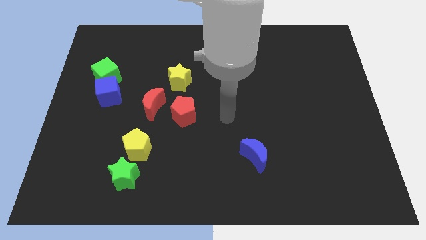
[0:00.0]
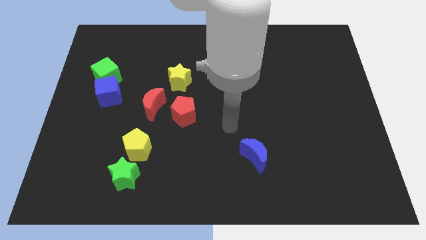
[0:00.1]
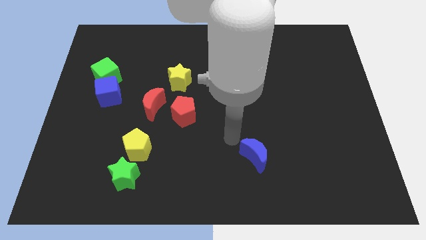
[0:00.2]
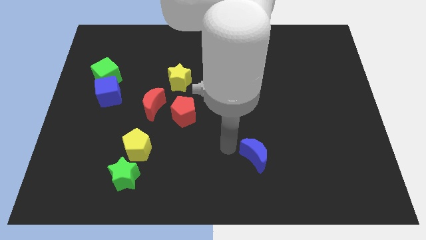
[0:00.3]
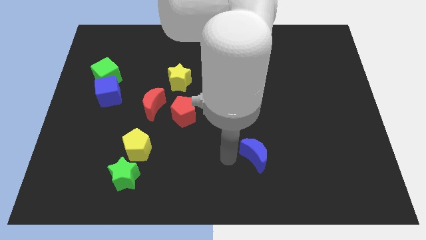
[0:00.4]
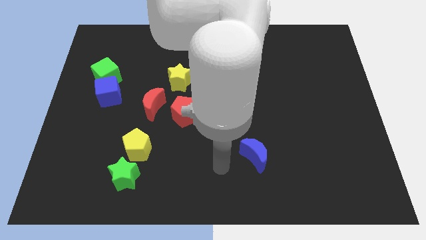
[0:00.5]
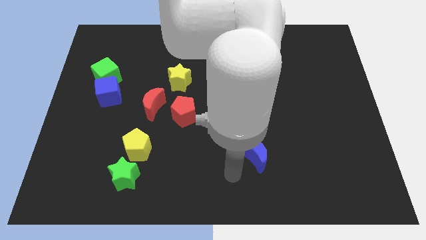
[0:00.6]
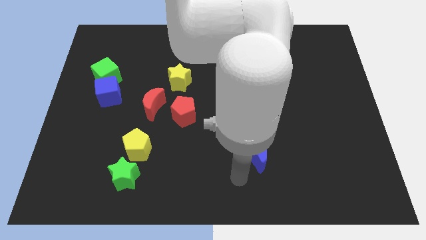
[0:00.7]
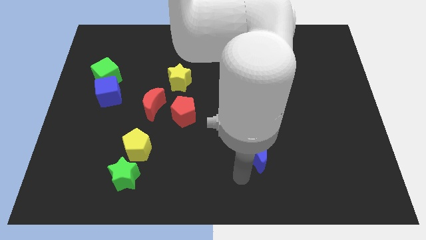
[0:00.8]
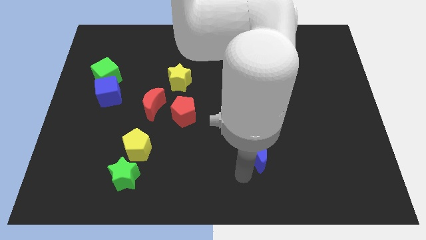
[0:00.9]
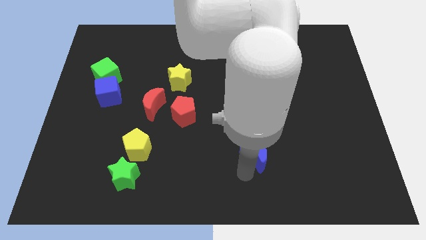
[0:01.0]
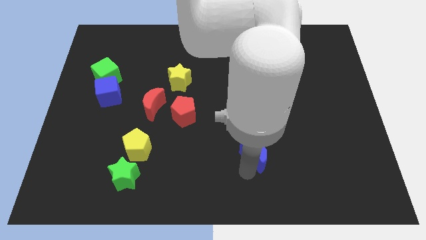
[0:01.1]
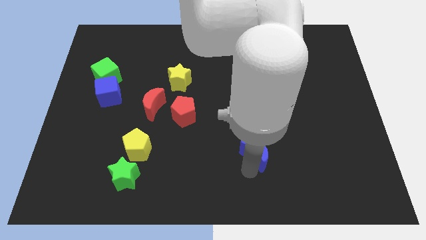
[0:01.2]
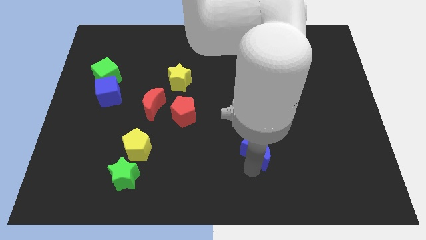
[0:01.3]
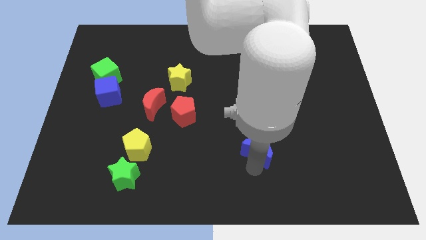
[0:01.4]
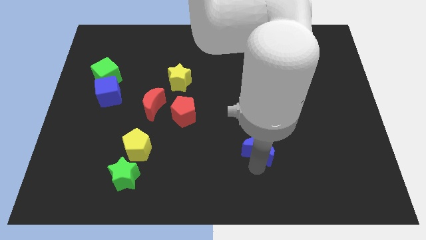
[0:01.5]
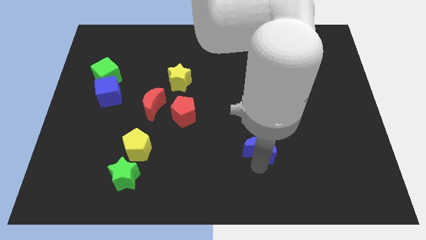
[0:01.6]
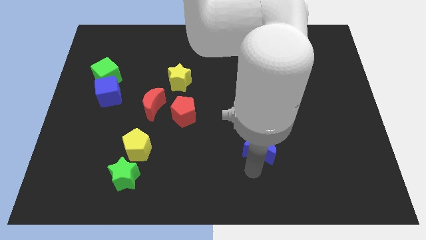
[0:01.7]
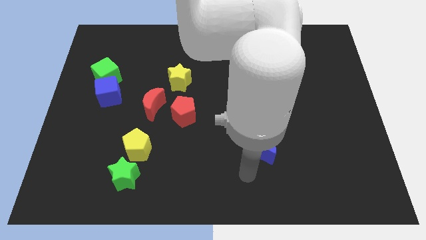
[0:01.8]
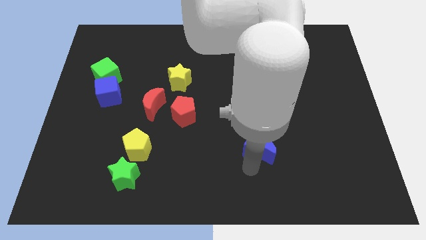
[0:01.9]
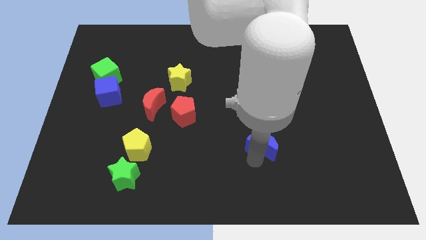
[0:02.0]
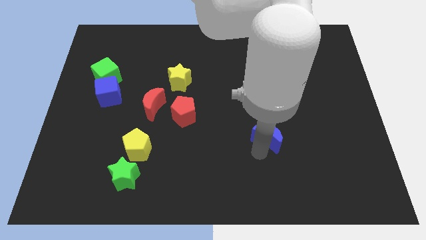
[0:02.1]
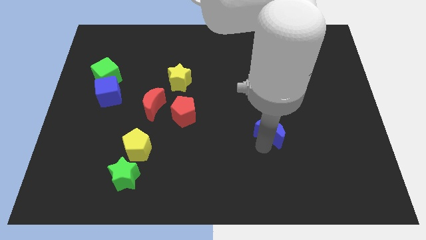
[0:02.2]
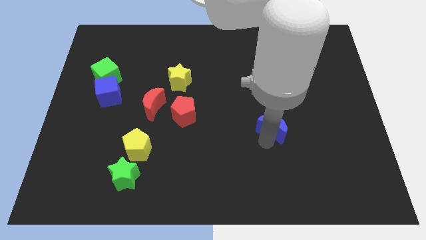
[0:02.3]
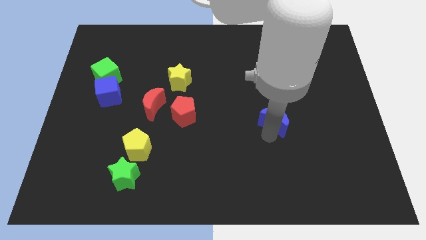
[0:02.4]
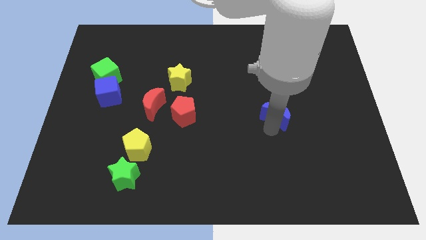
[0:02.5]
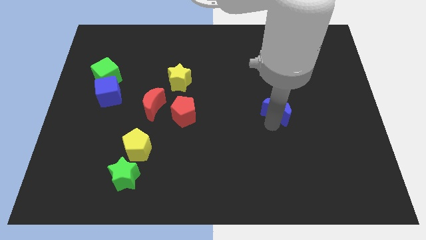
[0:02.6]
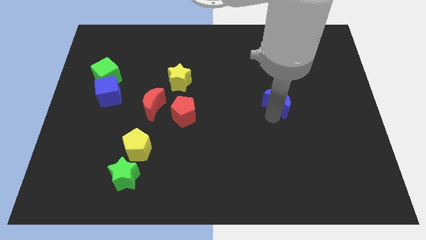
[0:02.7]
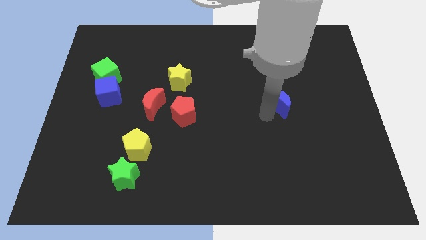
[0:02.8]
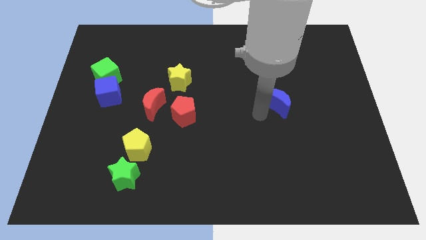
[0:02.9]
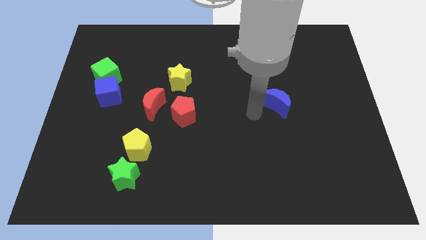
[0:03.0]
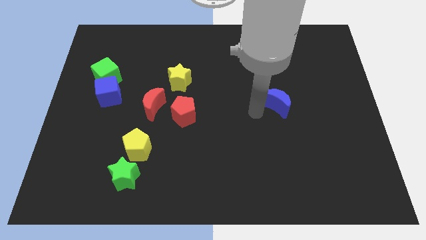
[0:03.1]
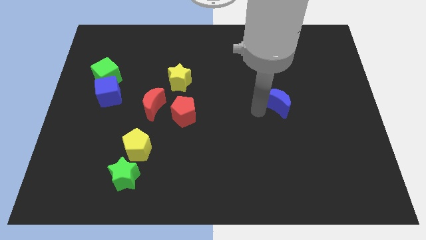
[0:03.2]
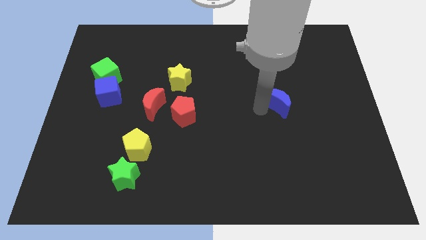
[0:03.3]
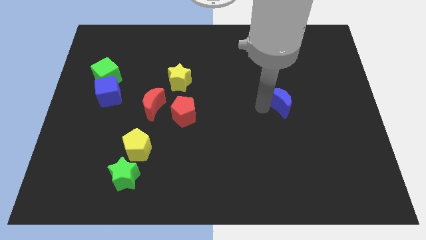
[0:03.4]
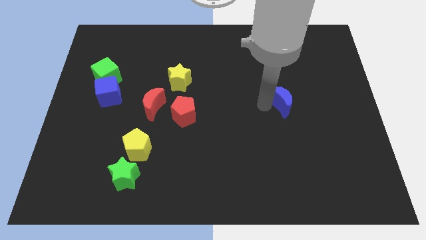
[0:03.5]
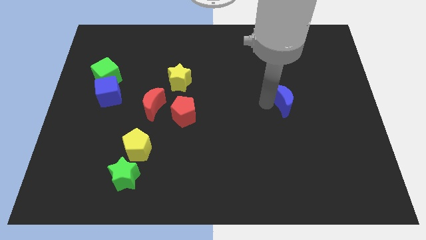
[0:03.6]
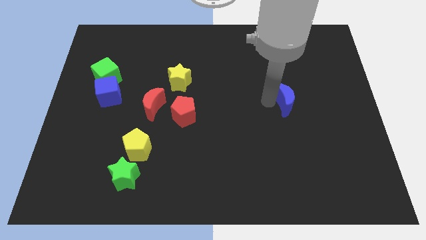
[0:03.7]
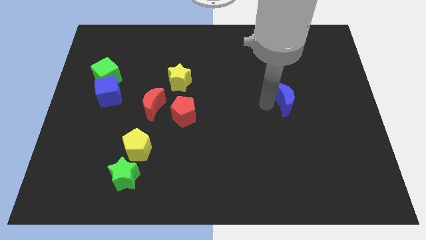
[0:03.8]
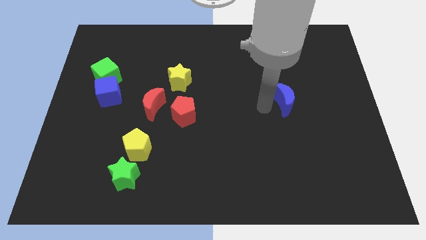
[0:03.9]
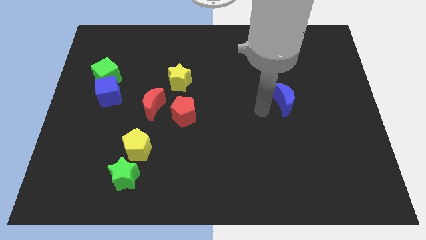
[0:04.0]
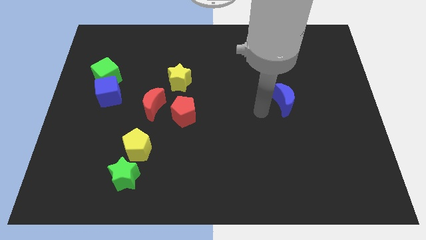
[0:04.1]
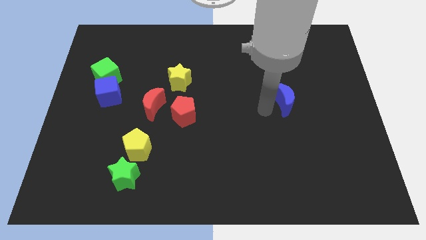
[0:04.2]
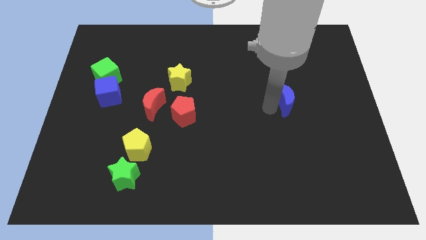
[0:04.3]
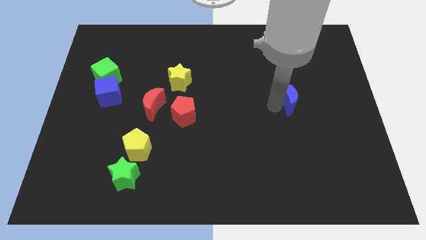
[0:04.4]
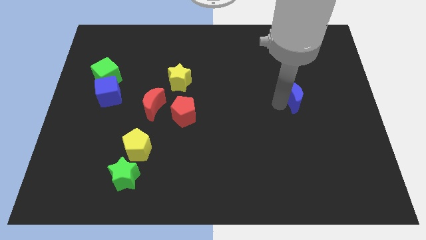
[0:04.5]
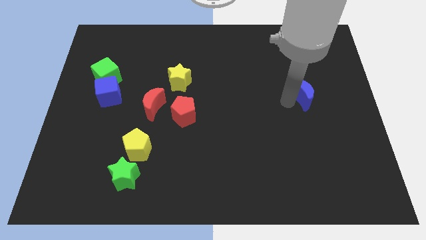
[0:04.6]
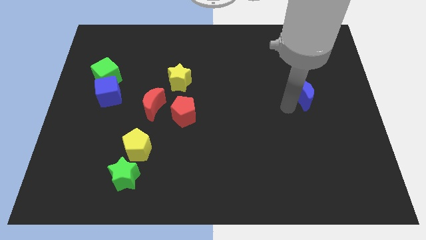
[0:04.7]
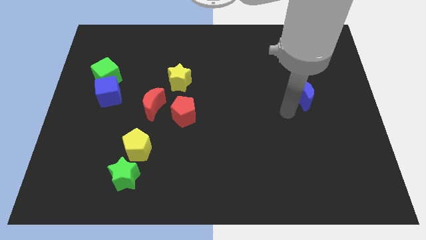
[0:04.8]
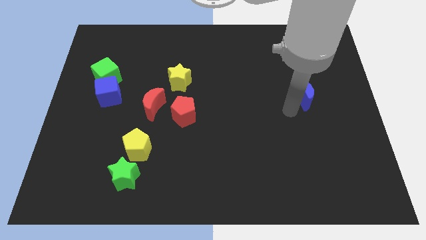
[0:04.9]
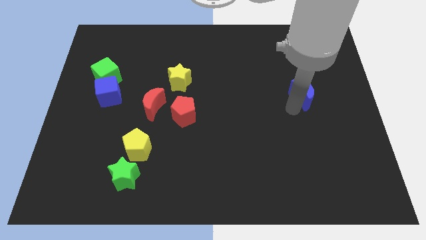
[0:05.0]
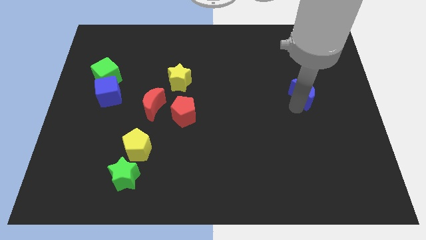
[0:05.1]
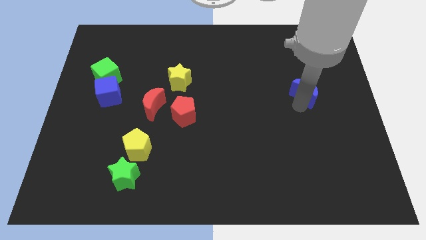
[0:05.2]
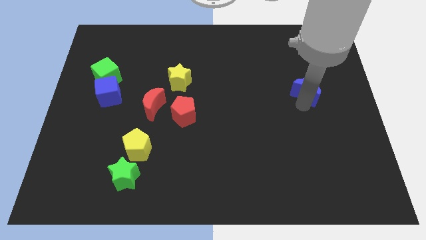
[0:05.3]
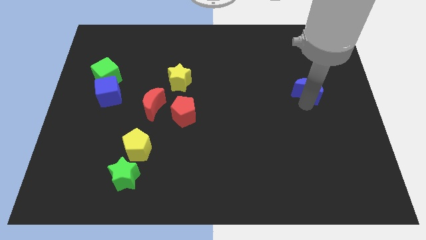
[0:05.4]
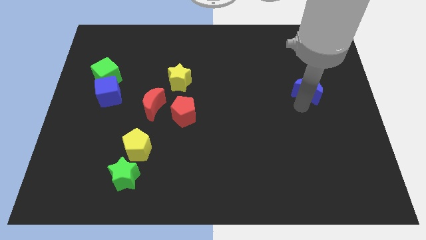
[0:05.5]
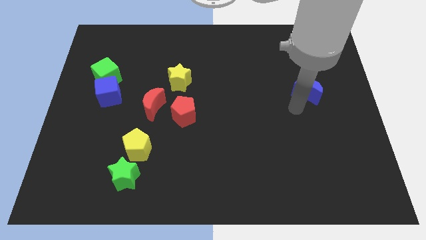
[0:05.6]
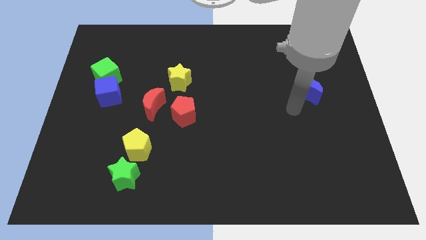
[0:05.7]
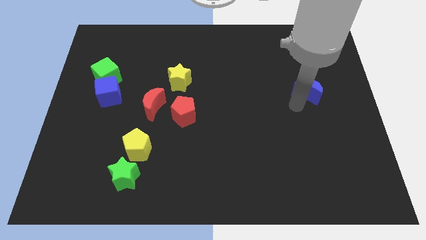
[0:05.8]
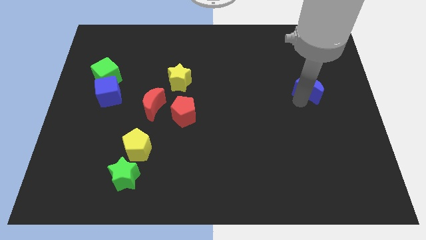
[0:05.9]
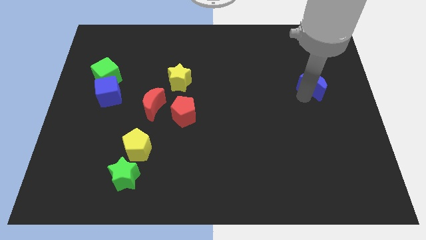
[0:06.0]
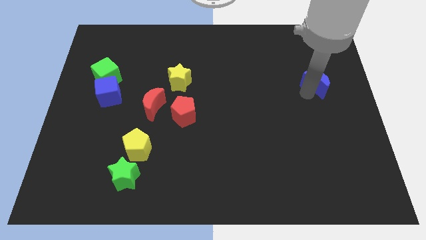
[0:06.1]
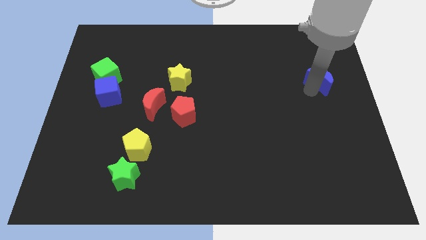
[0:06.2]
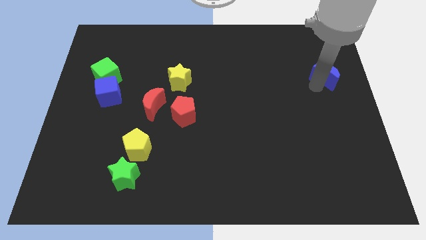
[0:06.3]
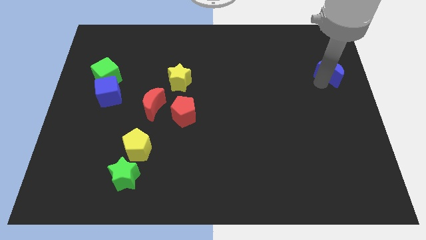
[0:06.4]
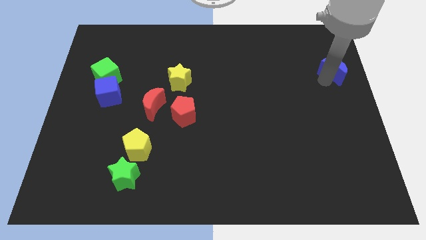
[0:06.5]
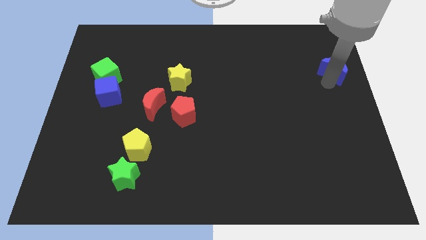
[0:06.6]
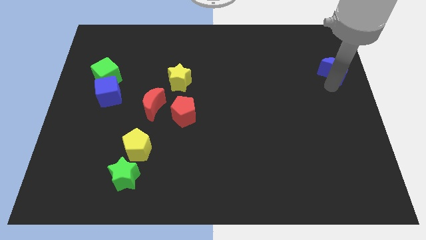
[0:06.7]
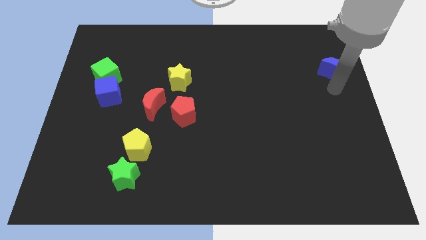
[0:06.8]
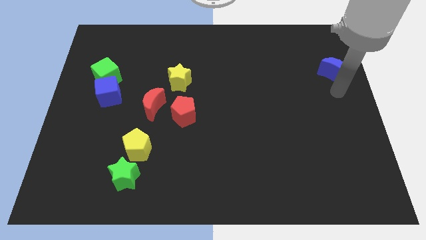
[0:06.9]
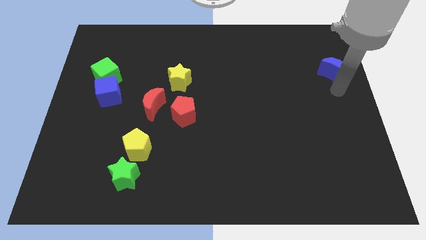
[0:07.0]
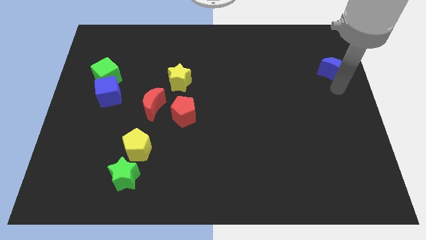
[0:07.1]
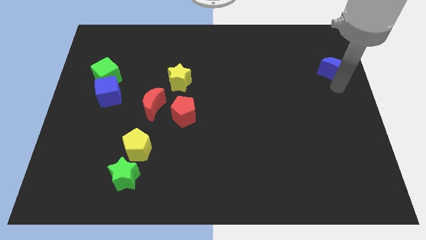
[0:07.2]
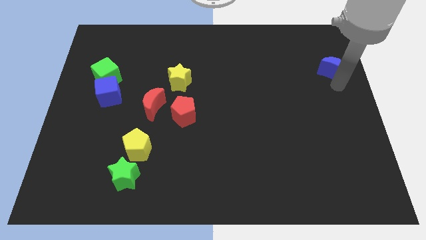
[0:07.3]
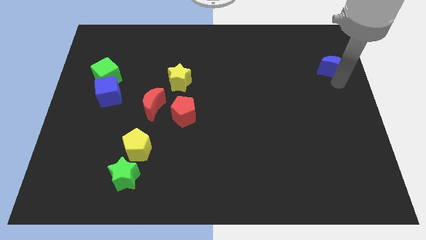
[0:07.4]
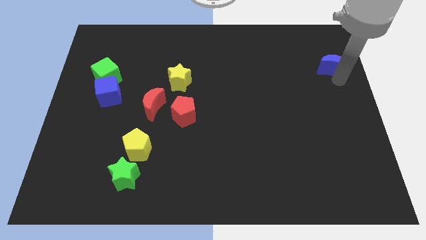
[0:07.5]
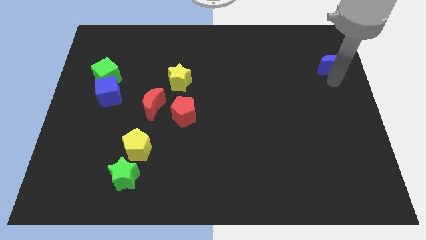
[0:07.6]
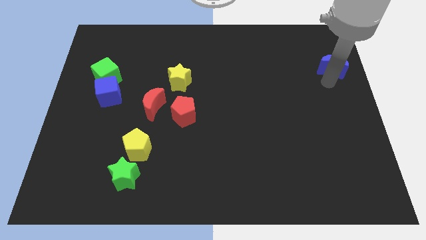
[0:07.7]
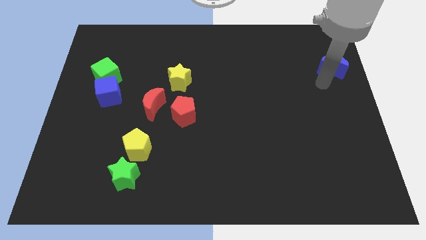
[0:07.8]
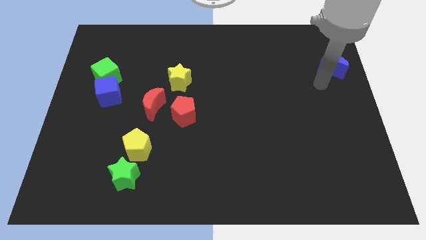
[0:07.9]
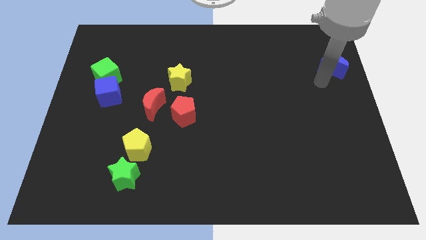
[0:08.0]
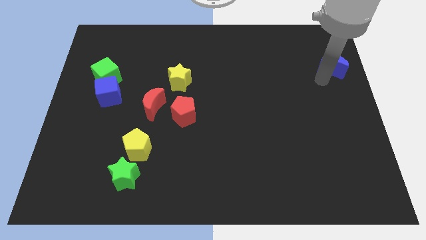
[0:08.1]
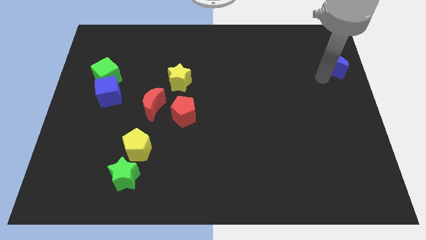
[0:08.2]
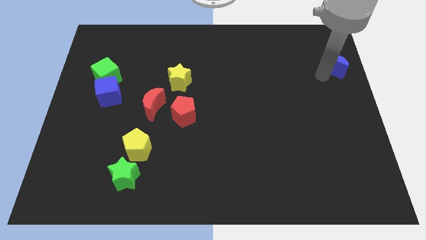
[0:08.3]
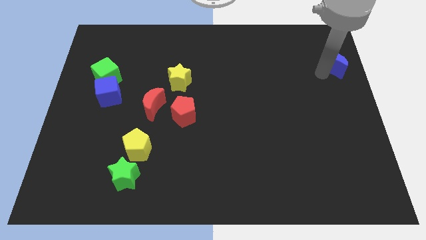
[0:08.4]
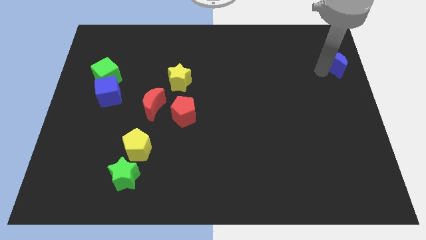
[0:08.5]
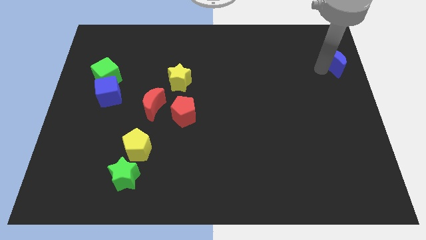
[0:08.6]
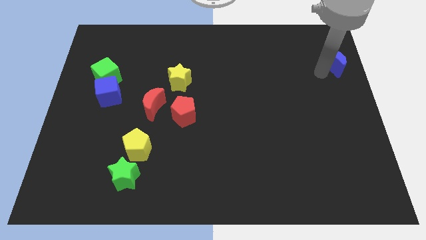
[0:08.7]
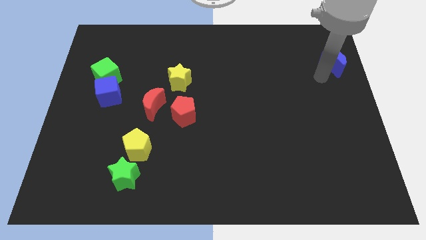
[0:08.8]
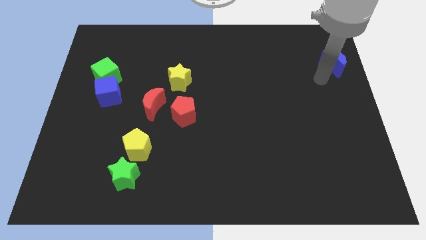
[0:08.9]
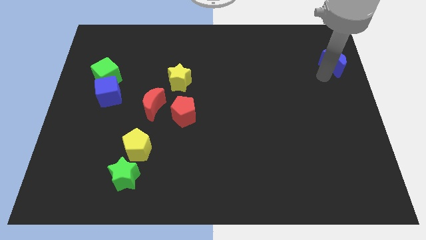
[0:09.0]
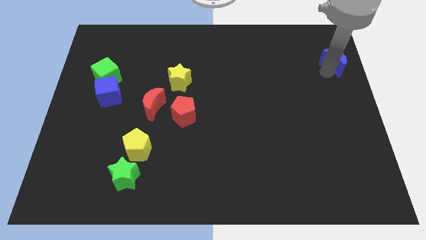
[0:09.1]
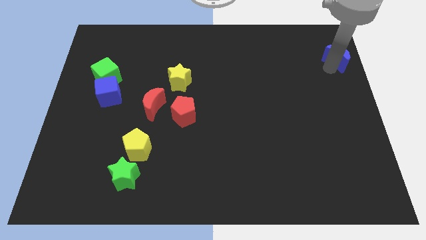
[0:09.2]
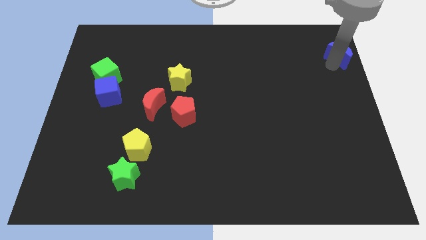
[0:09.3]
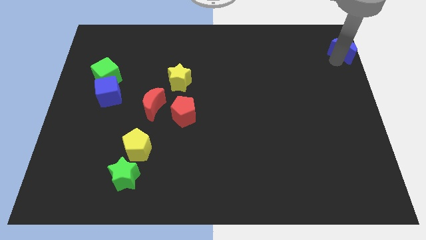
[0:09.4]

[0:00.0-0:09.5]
slide the blue moon to the upper right corner
